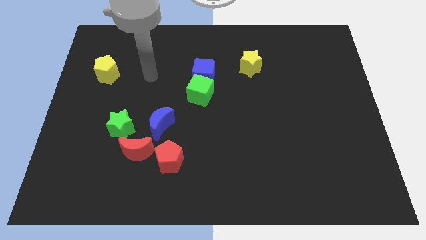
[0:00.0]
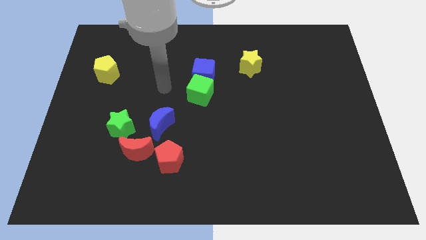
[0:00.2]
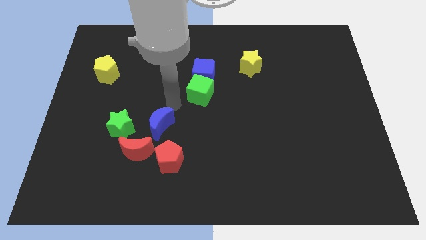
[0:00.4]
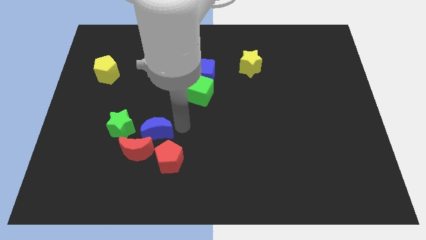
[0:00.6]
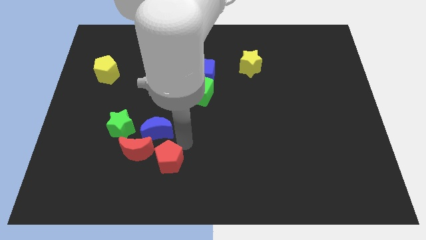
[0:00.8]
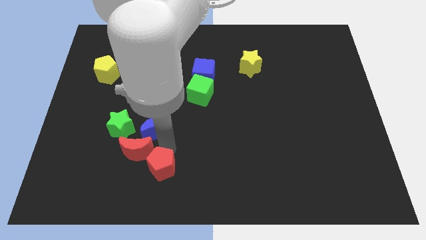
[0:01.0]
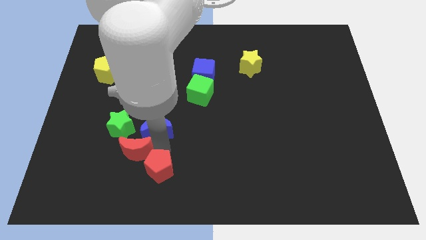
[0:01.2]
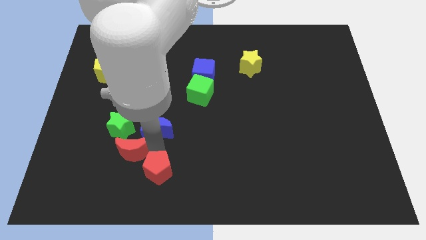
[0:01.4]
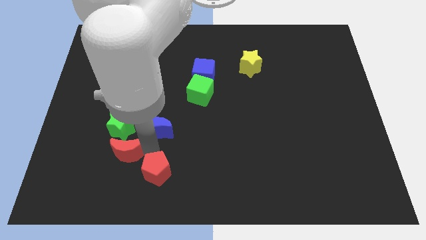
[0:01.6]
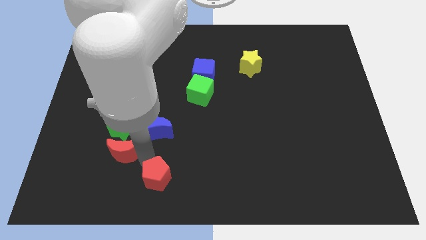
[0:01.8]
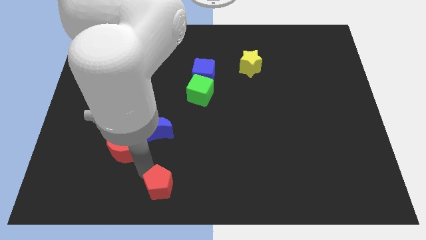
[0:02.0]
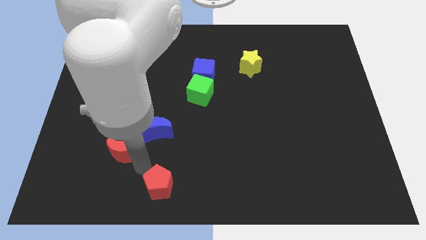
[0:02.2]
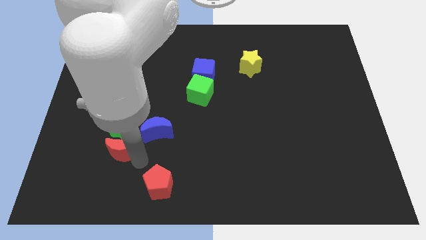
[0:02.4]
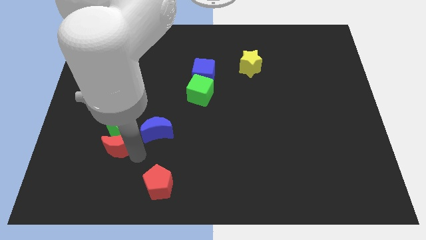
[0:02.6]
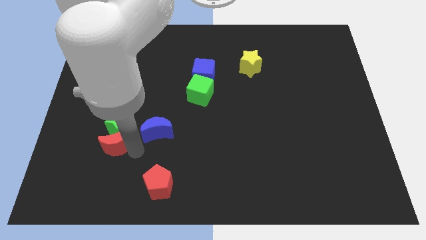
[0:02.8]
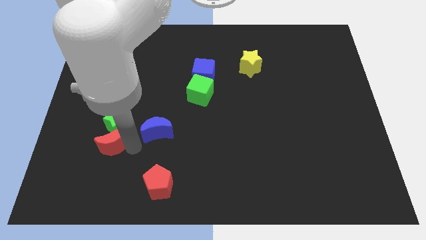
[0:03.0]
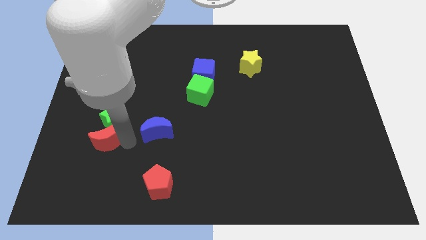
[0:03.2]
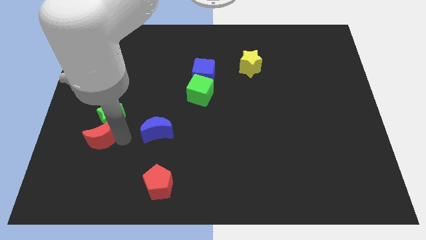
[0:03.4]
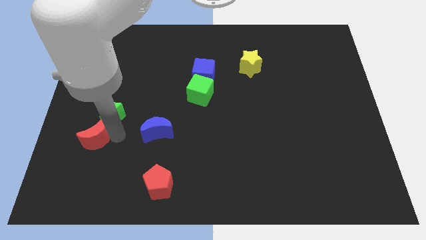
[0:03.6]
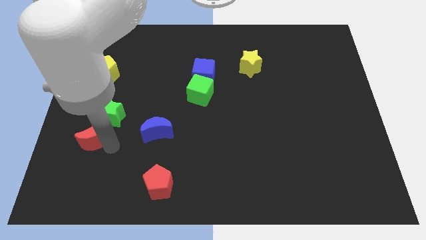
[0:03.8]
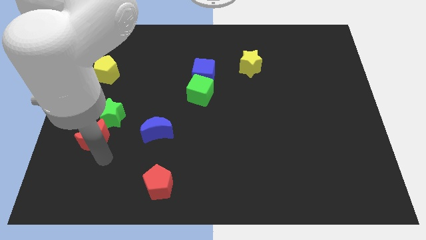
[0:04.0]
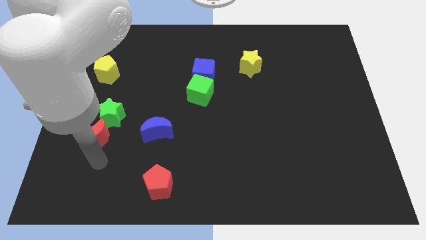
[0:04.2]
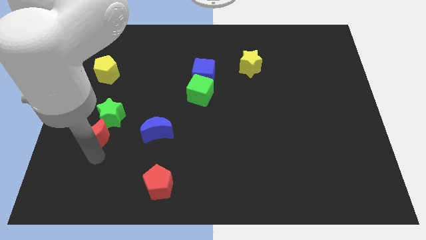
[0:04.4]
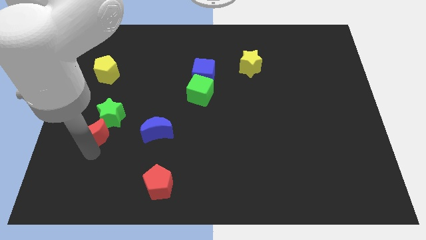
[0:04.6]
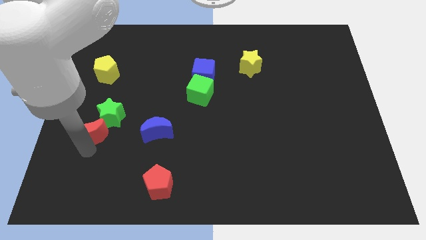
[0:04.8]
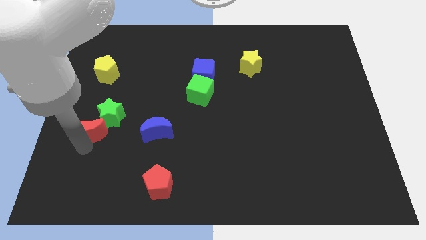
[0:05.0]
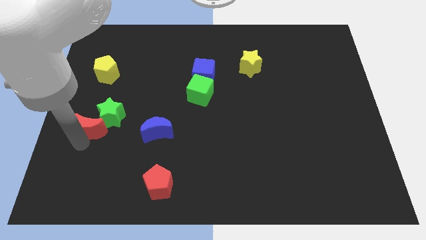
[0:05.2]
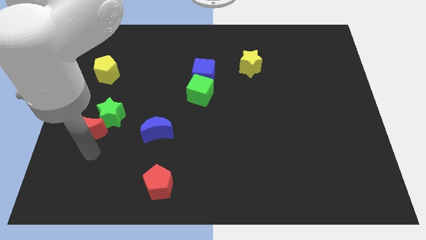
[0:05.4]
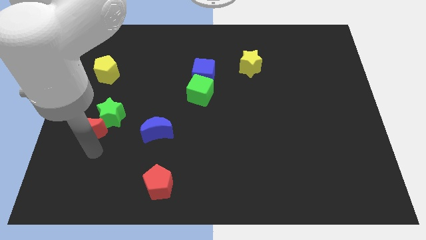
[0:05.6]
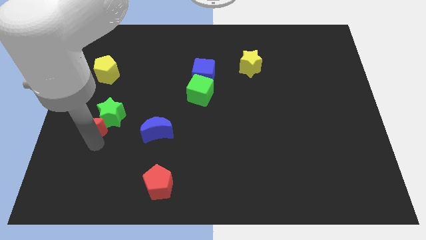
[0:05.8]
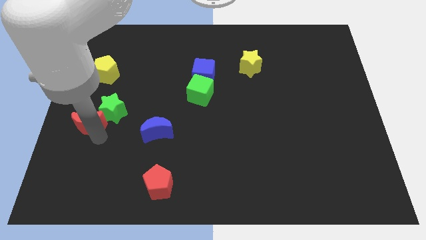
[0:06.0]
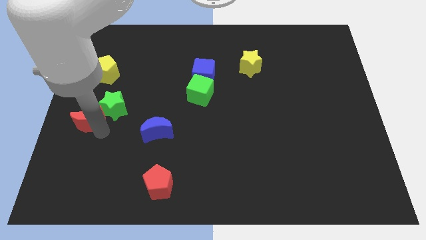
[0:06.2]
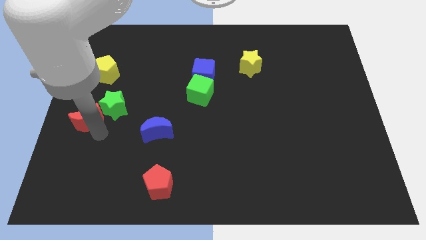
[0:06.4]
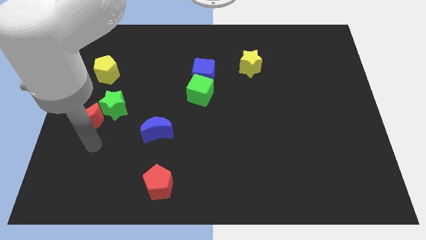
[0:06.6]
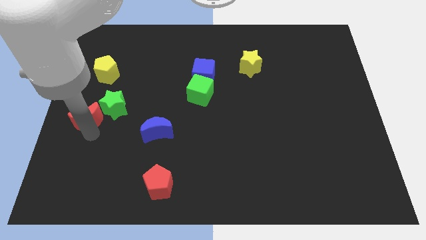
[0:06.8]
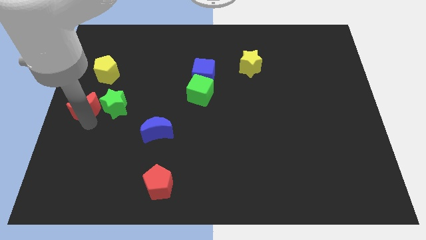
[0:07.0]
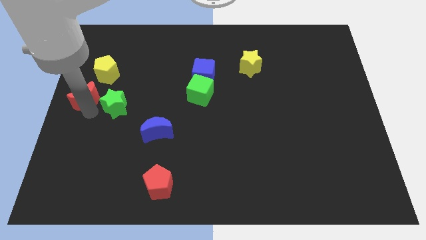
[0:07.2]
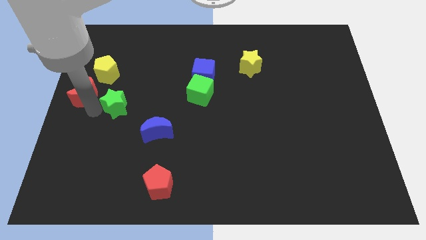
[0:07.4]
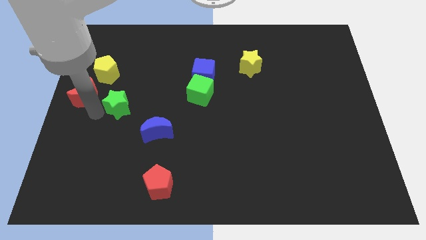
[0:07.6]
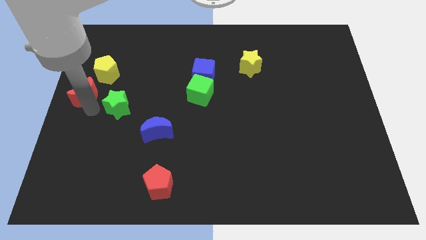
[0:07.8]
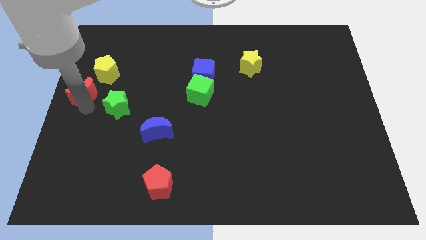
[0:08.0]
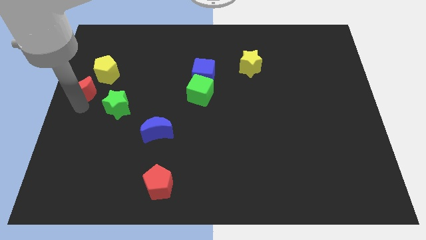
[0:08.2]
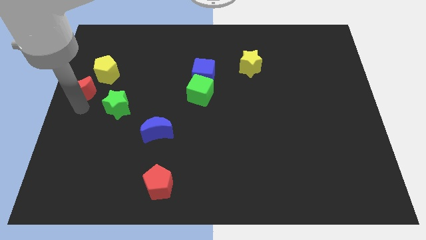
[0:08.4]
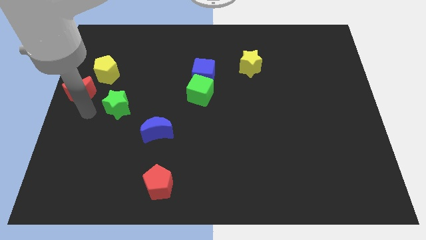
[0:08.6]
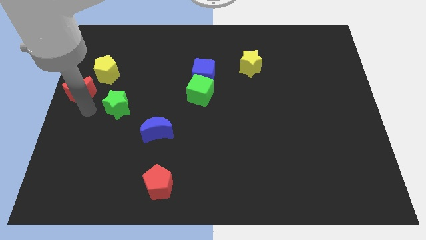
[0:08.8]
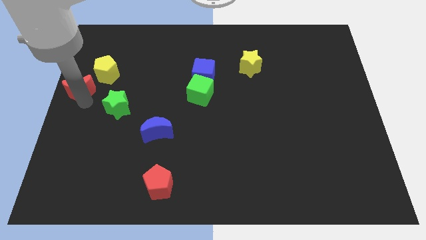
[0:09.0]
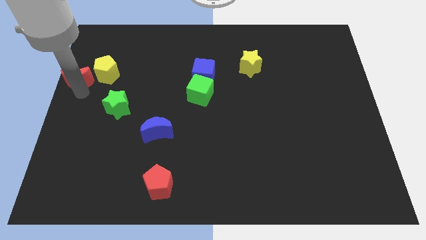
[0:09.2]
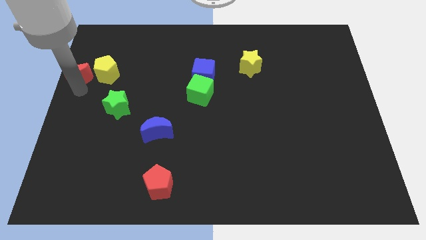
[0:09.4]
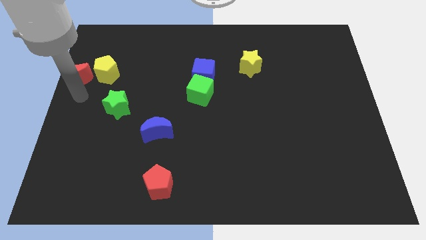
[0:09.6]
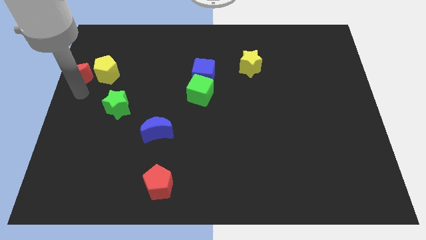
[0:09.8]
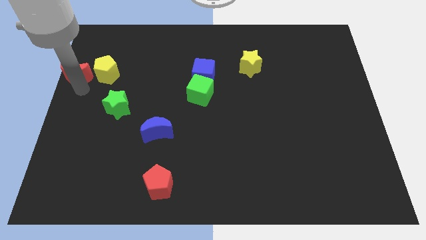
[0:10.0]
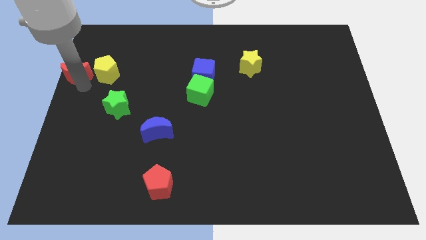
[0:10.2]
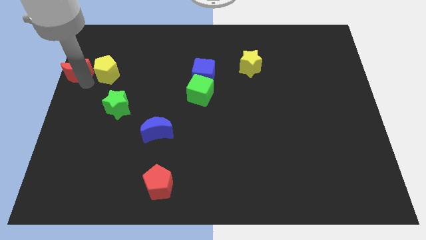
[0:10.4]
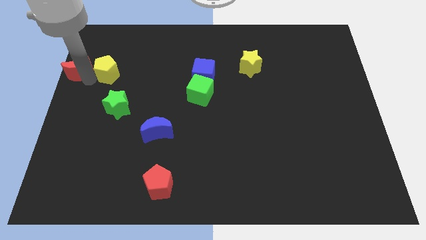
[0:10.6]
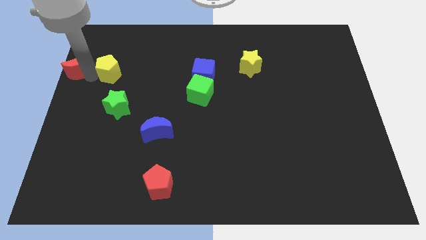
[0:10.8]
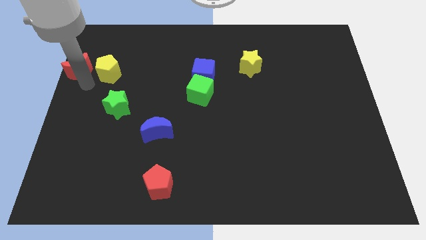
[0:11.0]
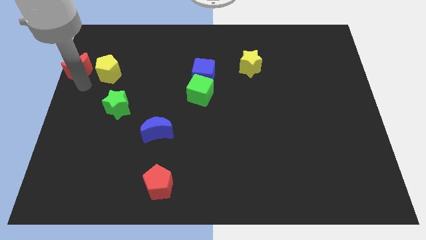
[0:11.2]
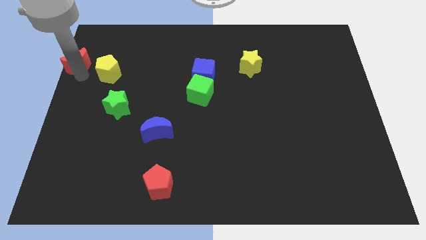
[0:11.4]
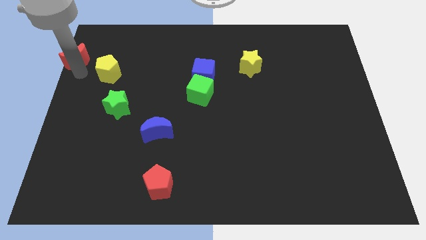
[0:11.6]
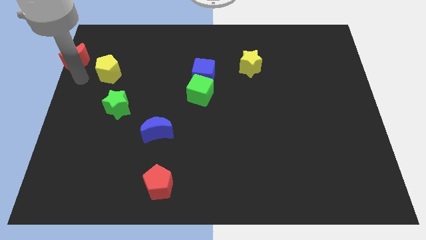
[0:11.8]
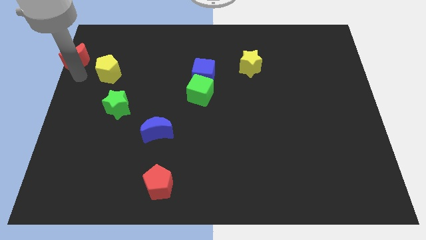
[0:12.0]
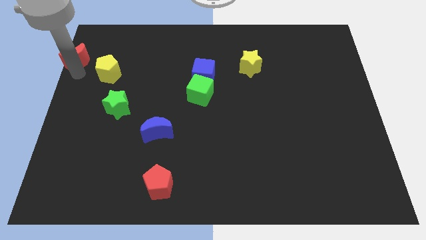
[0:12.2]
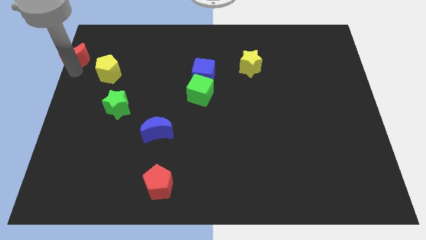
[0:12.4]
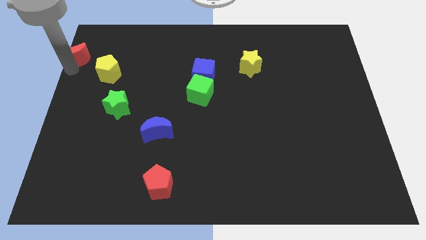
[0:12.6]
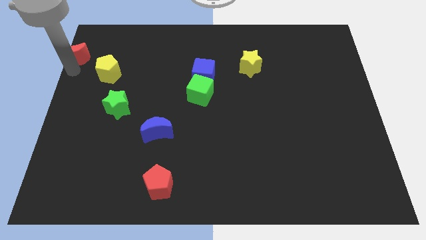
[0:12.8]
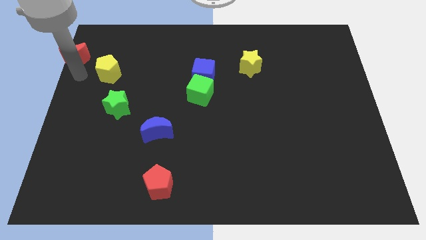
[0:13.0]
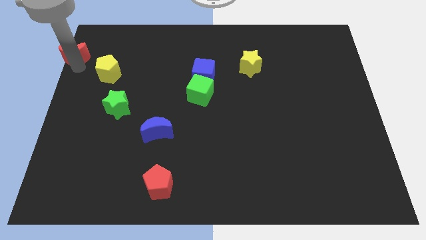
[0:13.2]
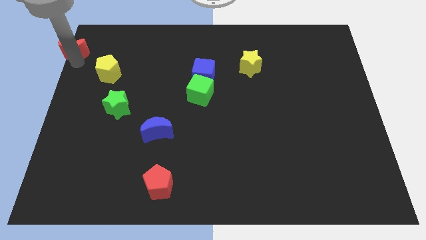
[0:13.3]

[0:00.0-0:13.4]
push the red moon to the top left
